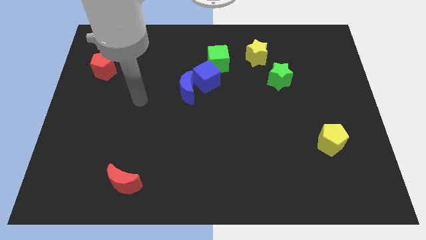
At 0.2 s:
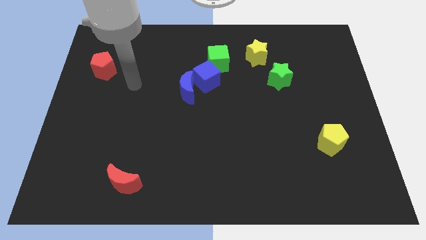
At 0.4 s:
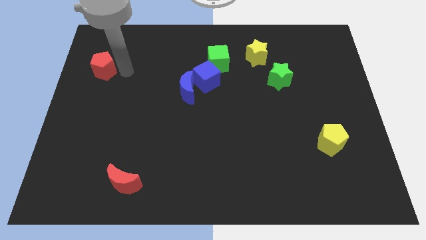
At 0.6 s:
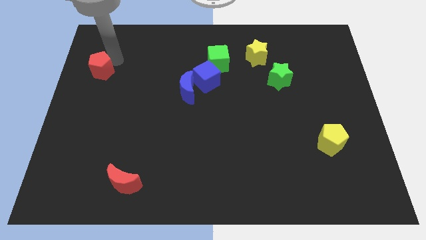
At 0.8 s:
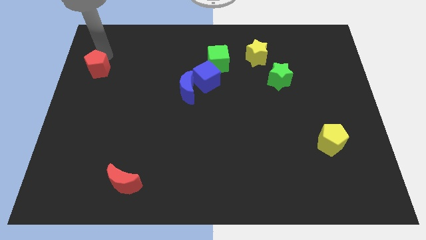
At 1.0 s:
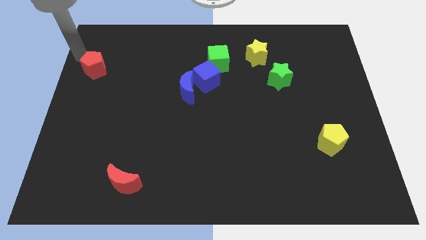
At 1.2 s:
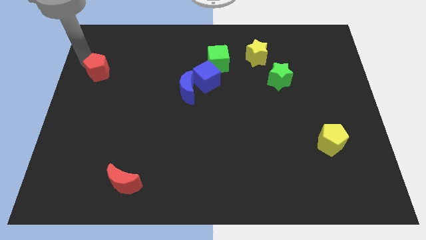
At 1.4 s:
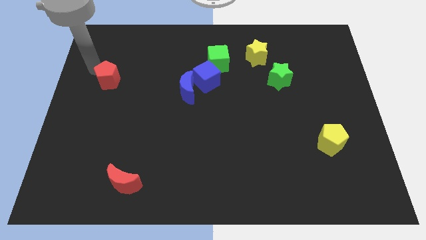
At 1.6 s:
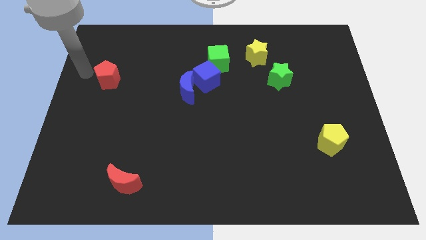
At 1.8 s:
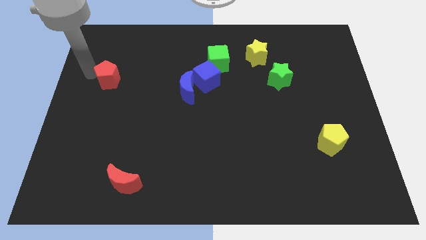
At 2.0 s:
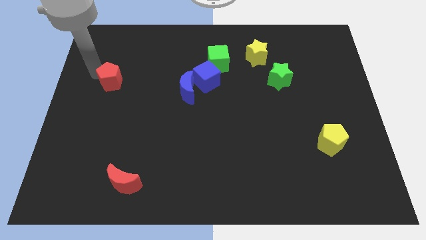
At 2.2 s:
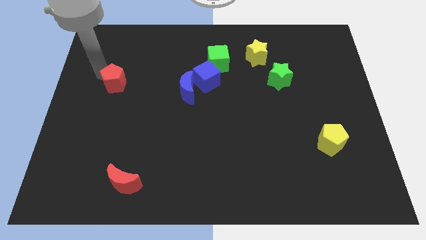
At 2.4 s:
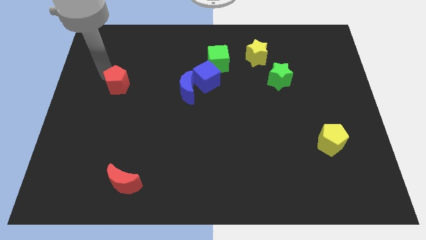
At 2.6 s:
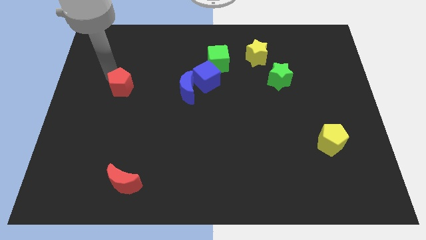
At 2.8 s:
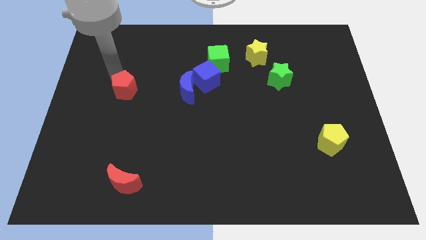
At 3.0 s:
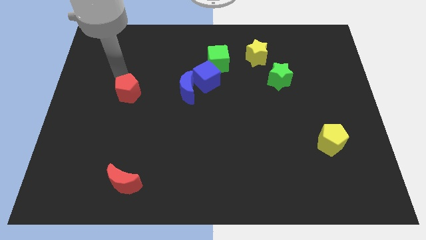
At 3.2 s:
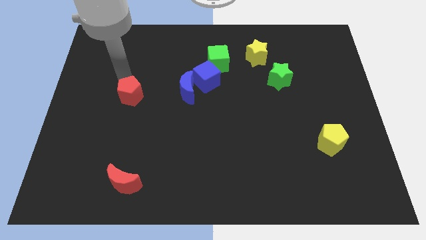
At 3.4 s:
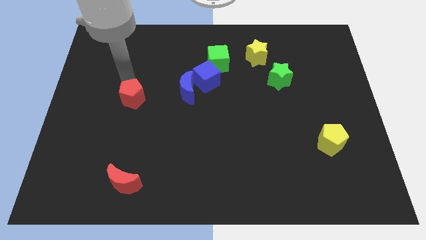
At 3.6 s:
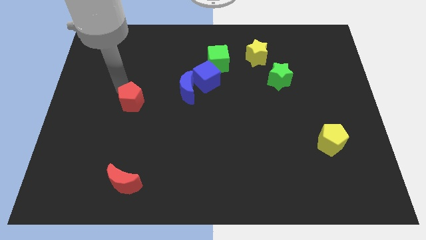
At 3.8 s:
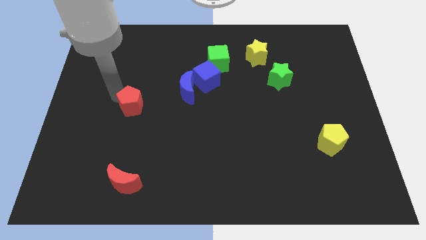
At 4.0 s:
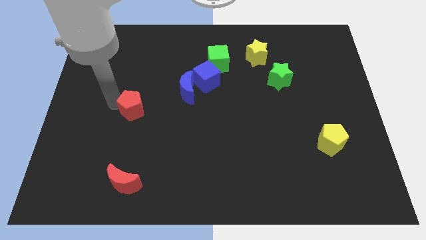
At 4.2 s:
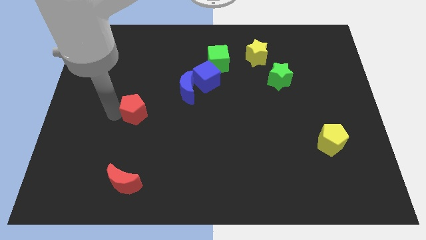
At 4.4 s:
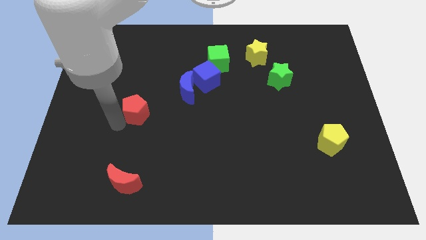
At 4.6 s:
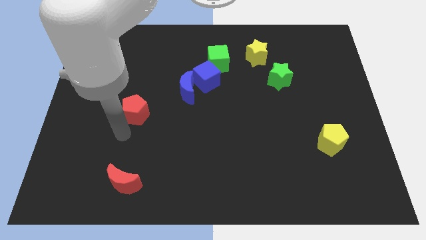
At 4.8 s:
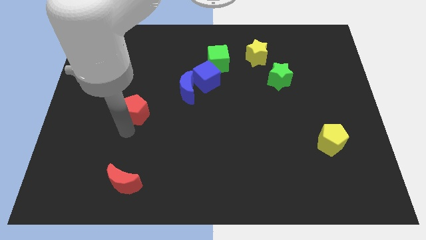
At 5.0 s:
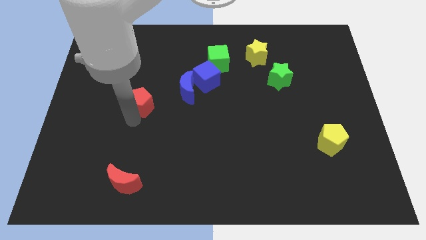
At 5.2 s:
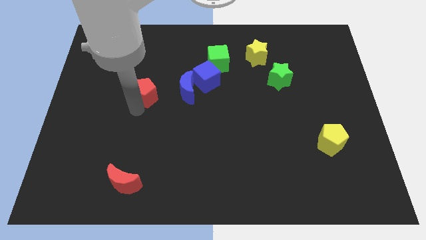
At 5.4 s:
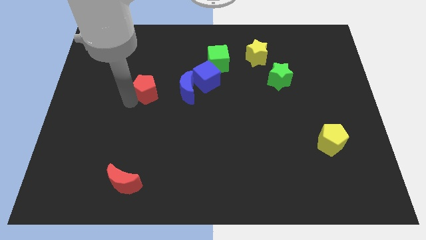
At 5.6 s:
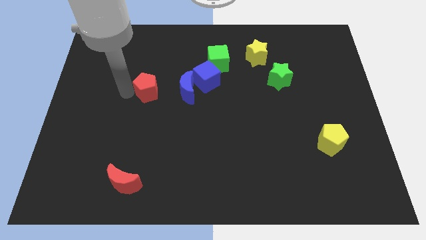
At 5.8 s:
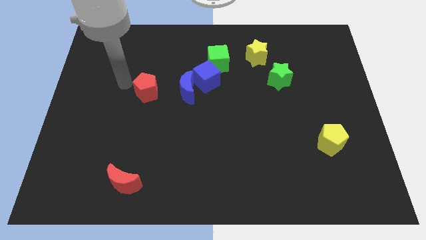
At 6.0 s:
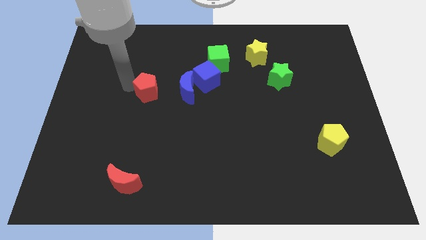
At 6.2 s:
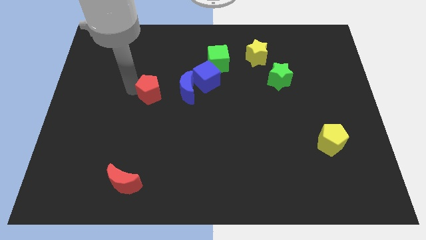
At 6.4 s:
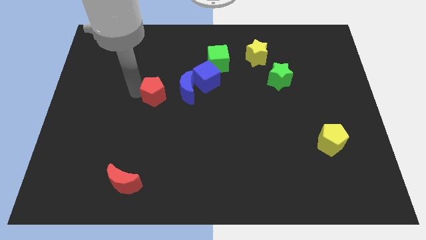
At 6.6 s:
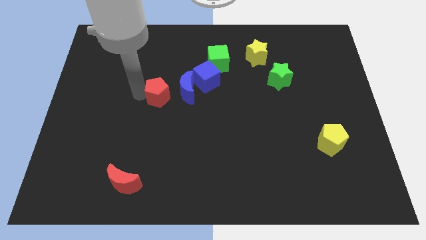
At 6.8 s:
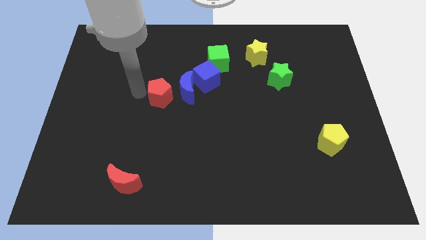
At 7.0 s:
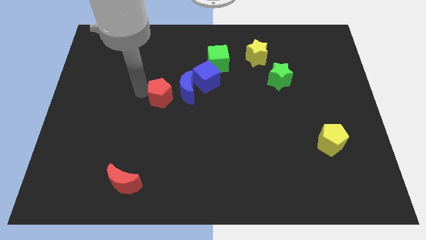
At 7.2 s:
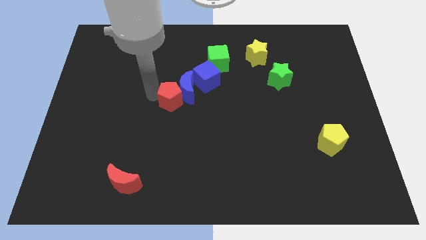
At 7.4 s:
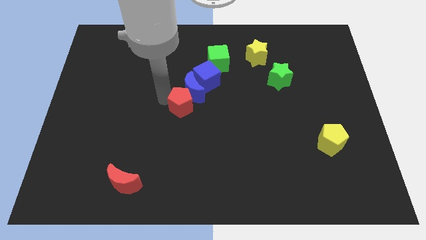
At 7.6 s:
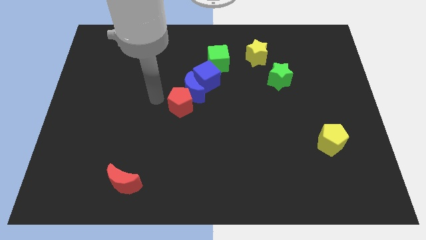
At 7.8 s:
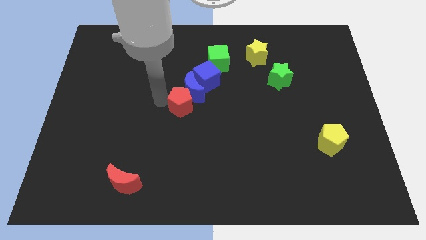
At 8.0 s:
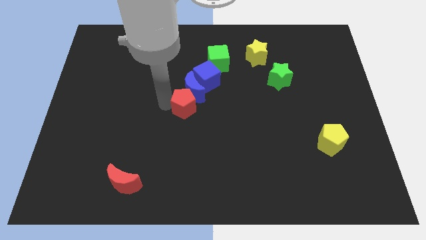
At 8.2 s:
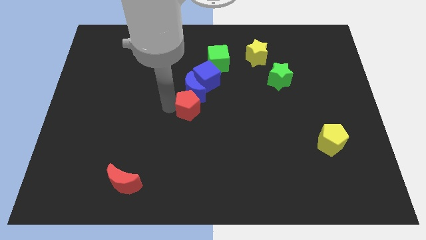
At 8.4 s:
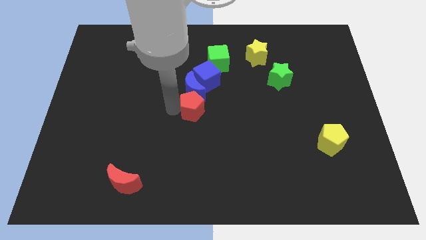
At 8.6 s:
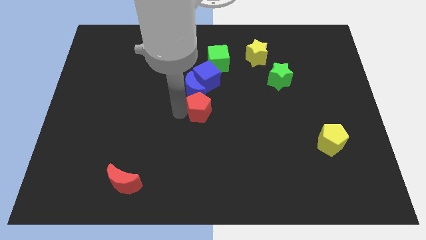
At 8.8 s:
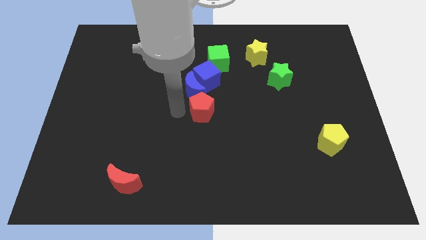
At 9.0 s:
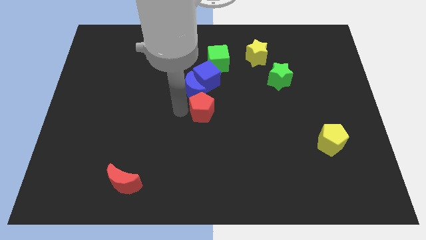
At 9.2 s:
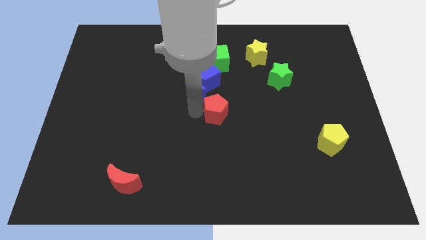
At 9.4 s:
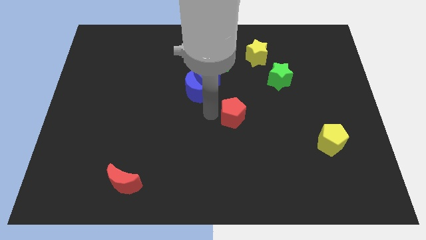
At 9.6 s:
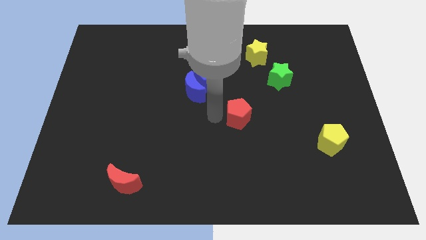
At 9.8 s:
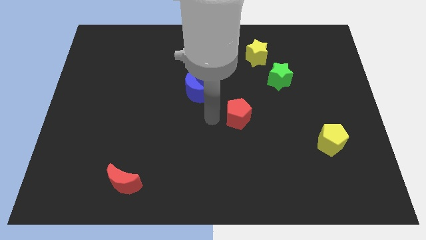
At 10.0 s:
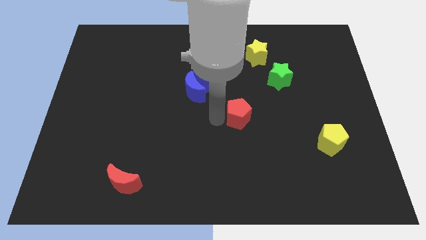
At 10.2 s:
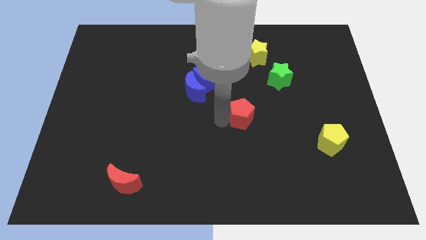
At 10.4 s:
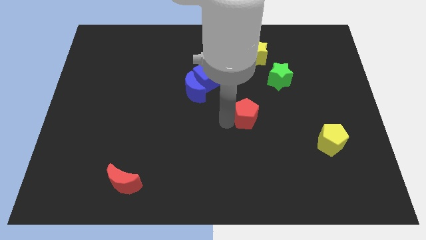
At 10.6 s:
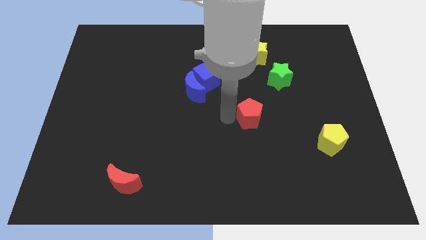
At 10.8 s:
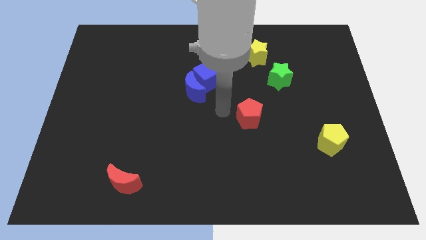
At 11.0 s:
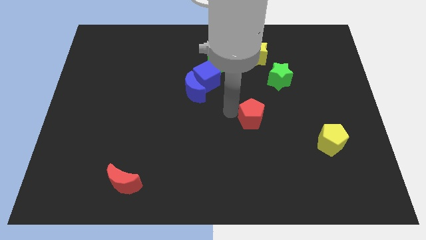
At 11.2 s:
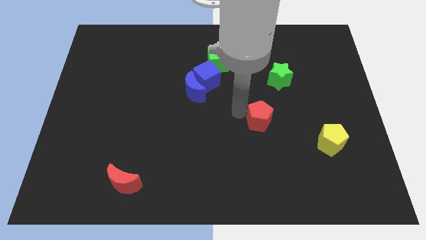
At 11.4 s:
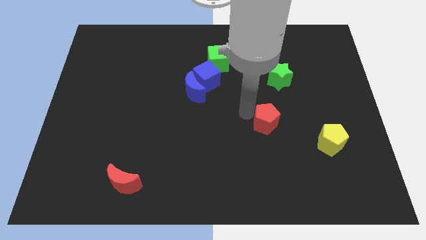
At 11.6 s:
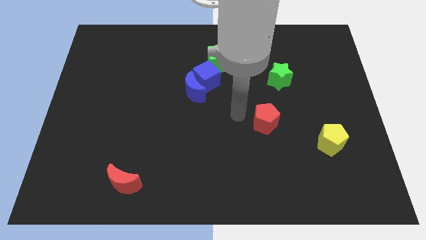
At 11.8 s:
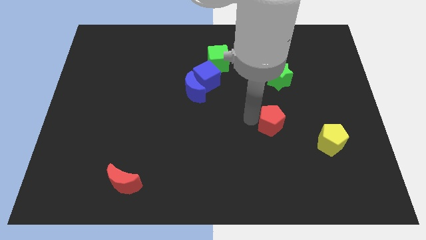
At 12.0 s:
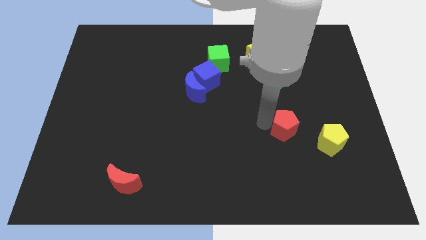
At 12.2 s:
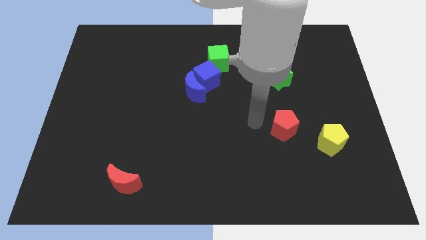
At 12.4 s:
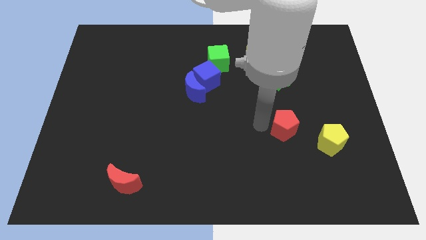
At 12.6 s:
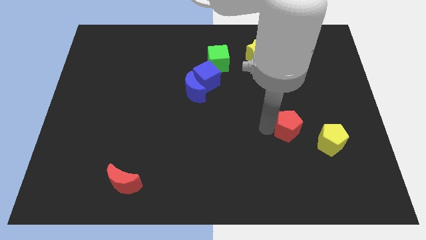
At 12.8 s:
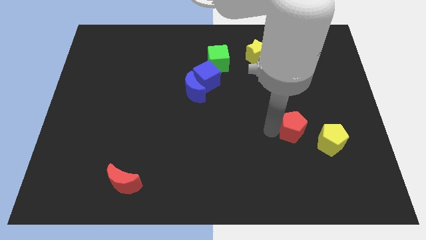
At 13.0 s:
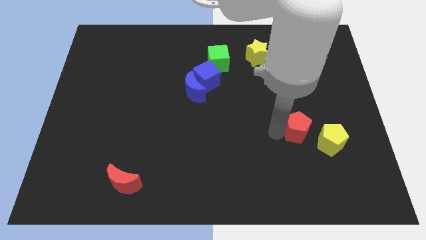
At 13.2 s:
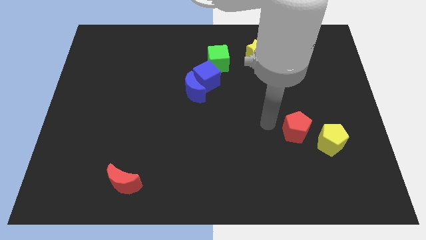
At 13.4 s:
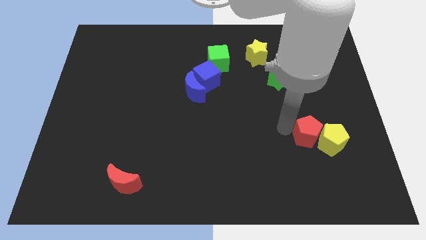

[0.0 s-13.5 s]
move the red pentagon next to the yellow pentagon

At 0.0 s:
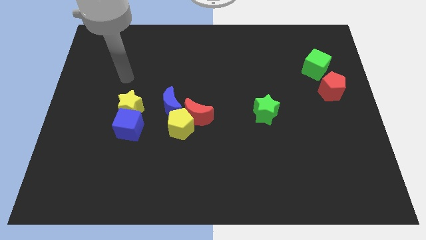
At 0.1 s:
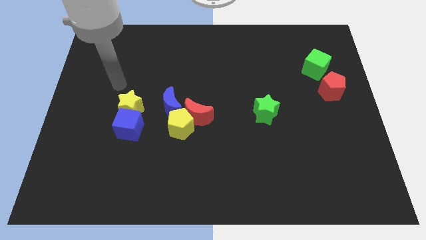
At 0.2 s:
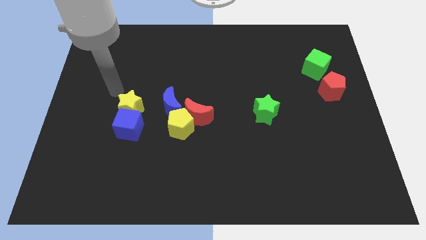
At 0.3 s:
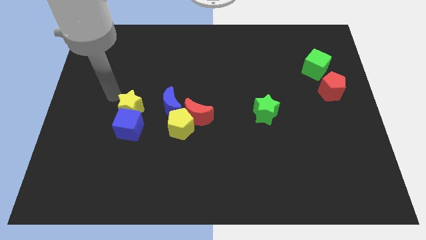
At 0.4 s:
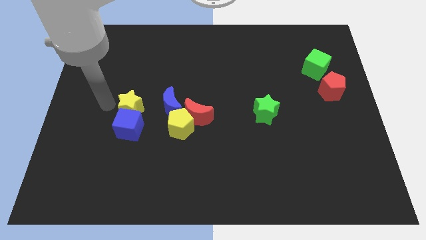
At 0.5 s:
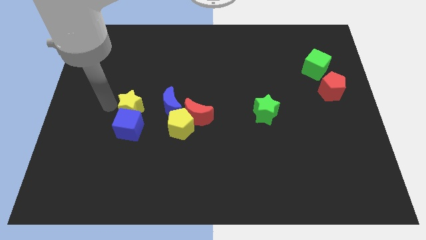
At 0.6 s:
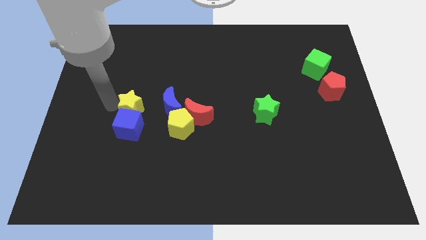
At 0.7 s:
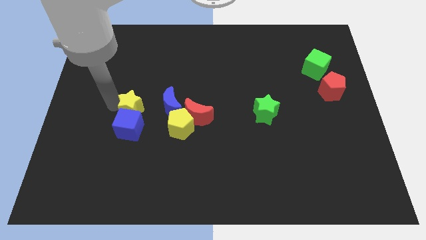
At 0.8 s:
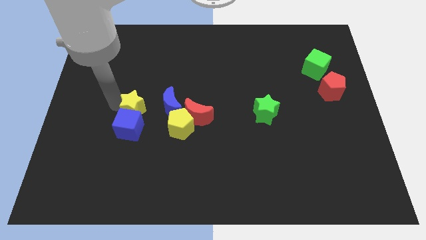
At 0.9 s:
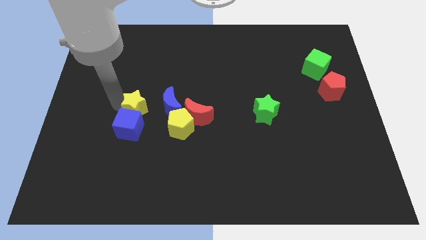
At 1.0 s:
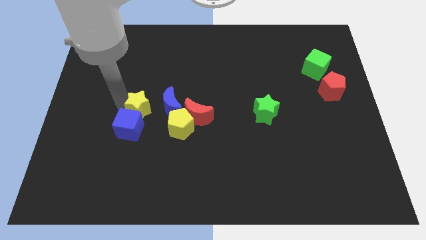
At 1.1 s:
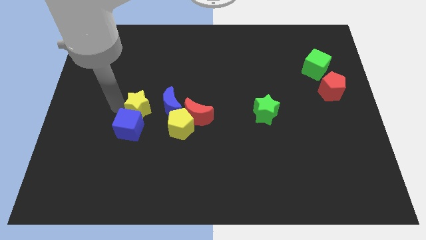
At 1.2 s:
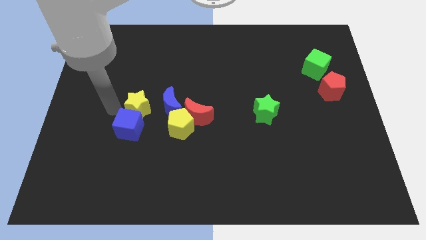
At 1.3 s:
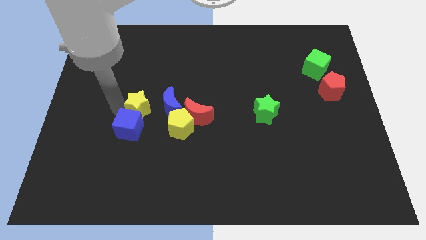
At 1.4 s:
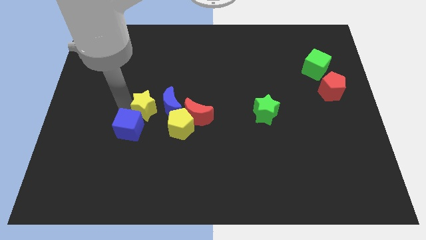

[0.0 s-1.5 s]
move the yellow star close to the blue moon
